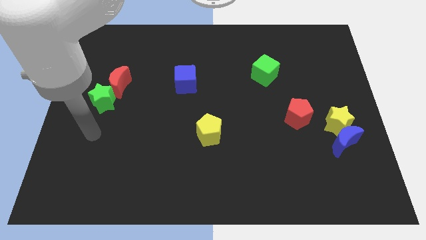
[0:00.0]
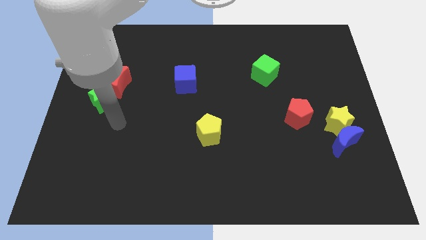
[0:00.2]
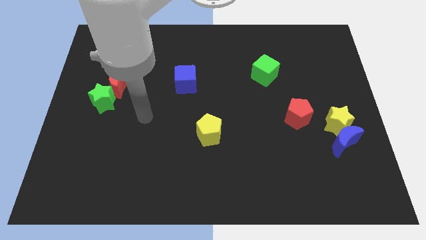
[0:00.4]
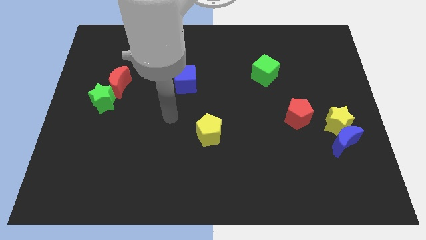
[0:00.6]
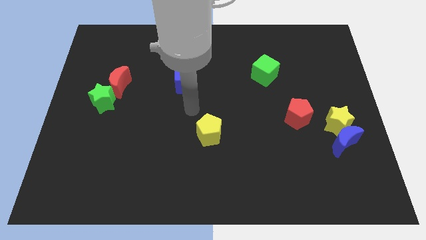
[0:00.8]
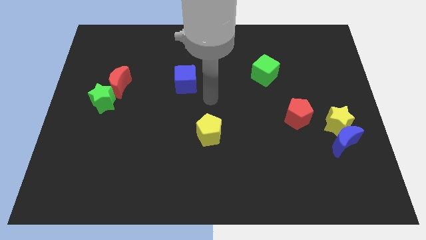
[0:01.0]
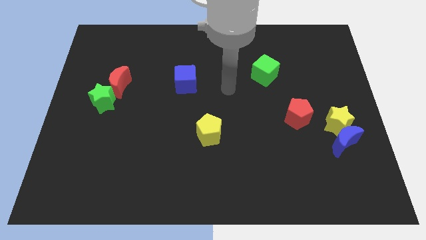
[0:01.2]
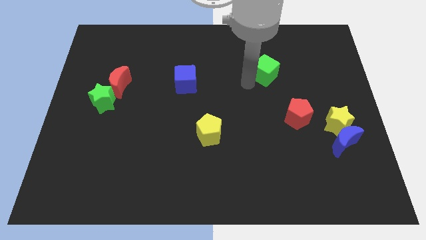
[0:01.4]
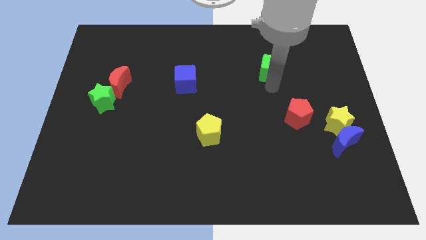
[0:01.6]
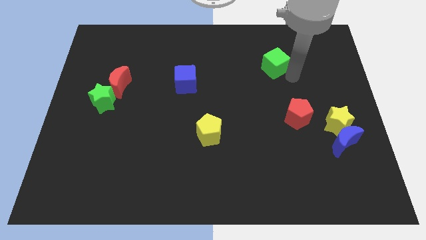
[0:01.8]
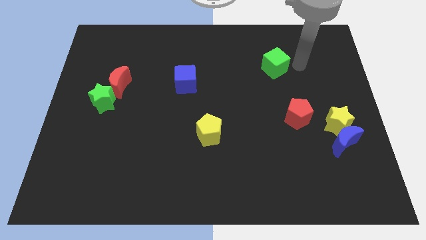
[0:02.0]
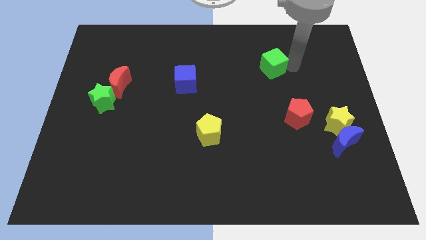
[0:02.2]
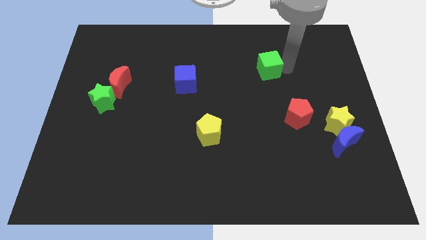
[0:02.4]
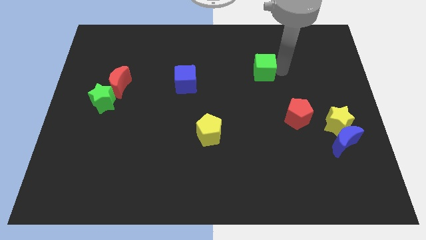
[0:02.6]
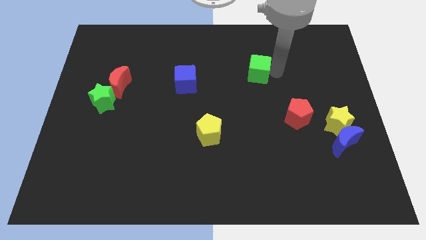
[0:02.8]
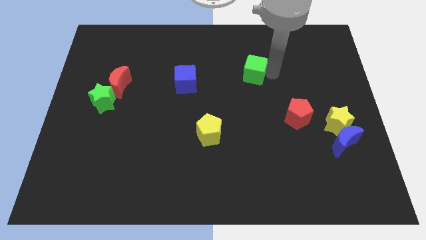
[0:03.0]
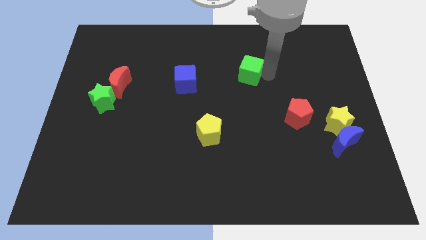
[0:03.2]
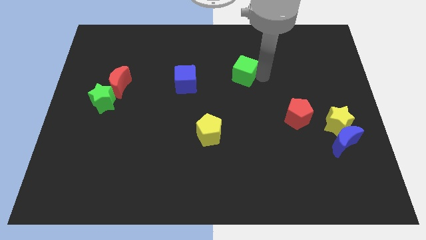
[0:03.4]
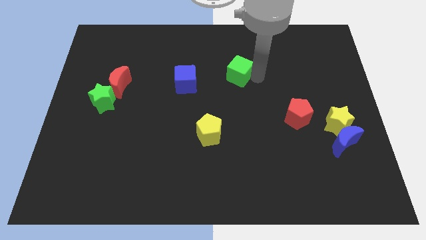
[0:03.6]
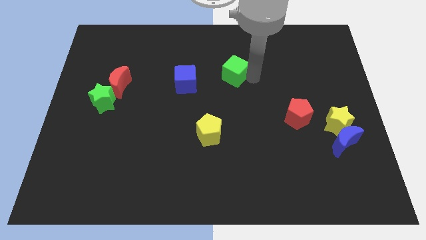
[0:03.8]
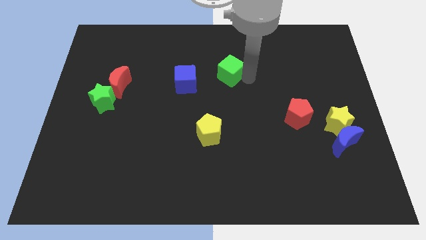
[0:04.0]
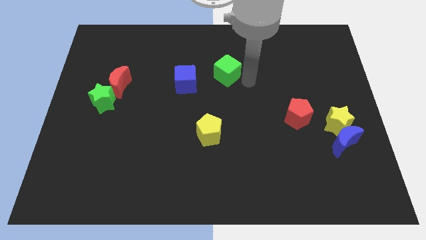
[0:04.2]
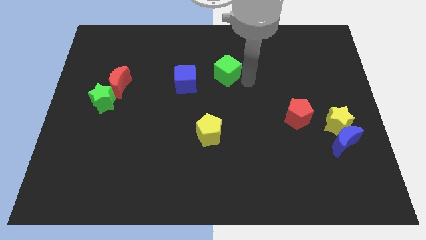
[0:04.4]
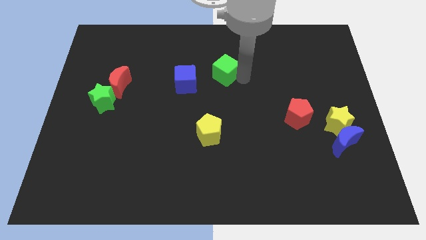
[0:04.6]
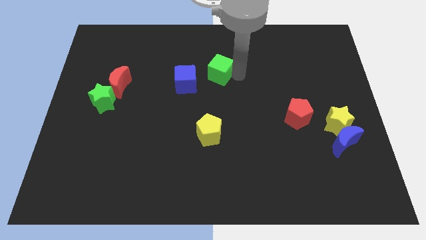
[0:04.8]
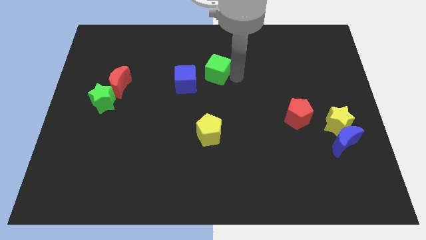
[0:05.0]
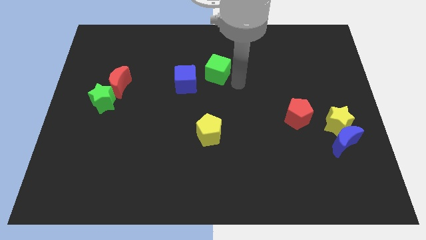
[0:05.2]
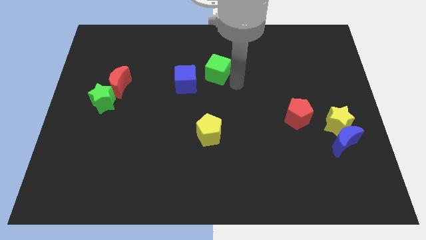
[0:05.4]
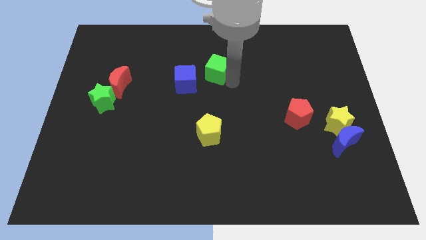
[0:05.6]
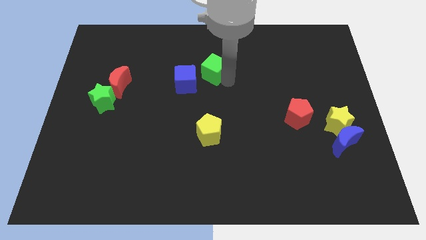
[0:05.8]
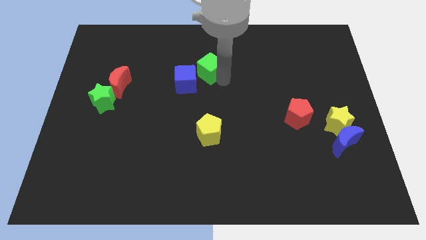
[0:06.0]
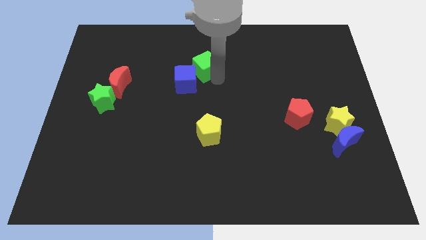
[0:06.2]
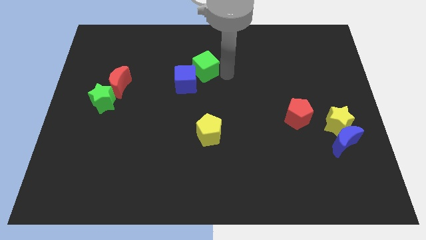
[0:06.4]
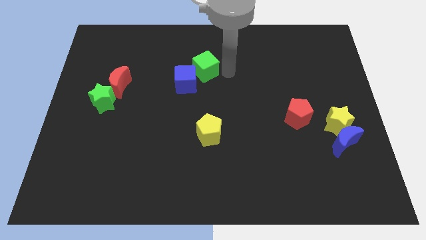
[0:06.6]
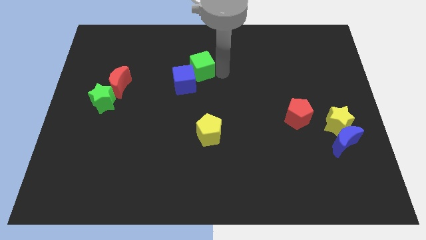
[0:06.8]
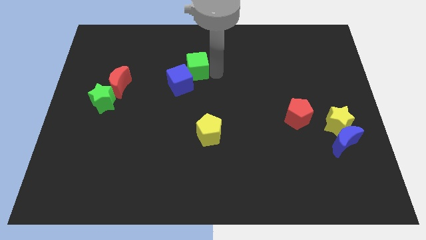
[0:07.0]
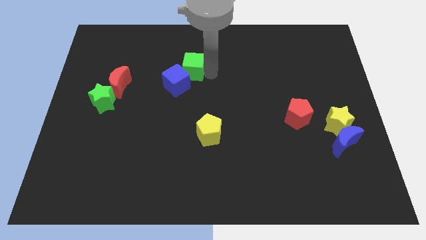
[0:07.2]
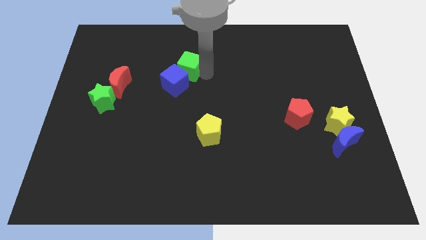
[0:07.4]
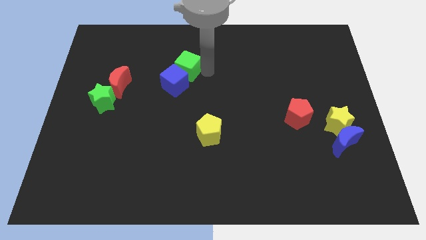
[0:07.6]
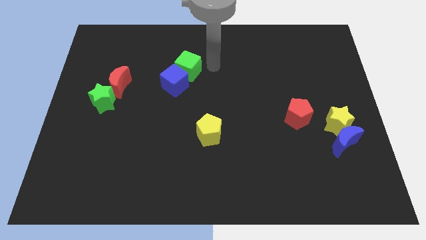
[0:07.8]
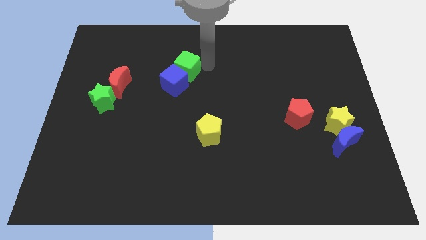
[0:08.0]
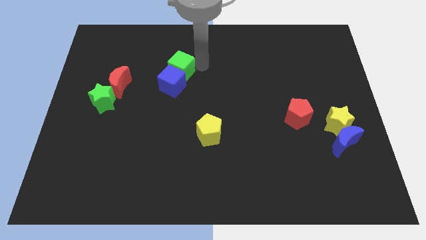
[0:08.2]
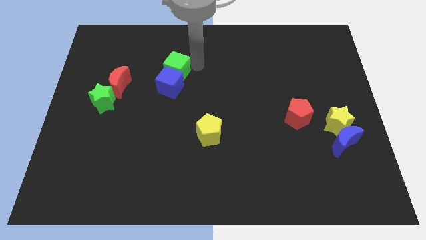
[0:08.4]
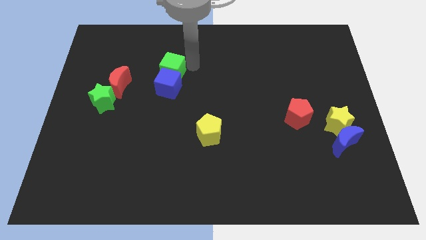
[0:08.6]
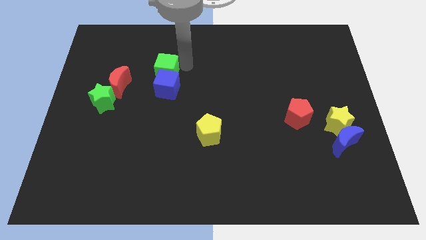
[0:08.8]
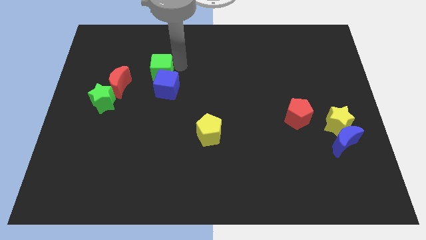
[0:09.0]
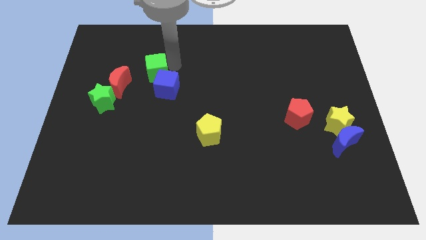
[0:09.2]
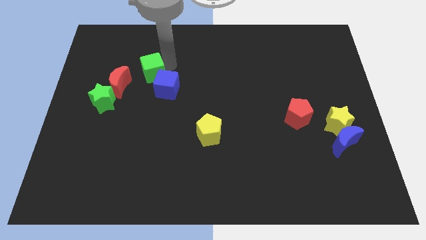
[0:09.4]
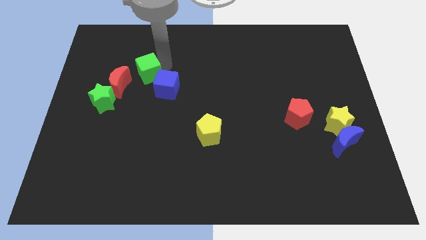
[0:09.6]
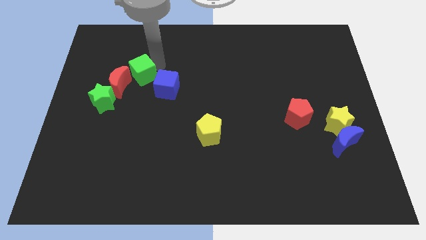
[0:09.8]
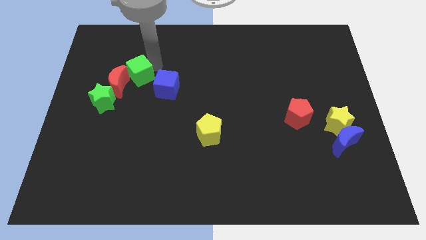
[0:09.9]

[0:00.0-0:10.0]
push the green cube next to the red moon

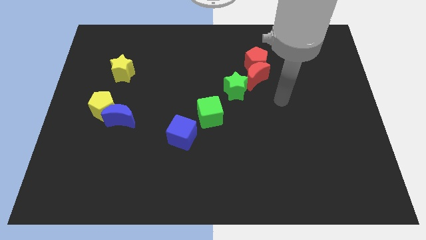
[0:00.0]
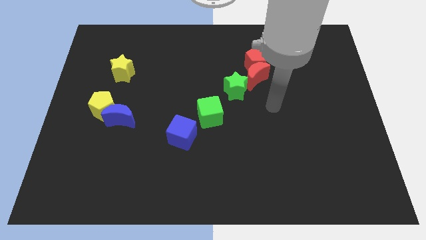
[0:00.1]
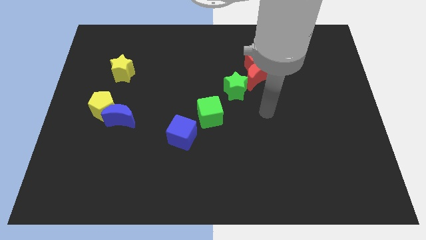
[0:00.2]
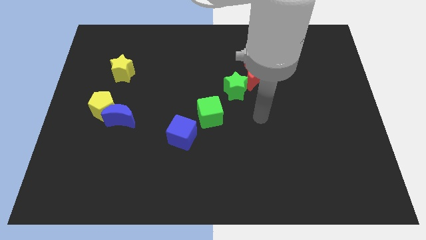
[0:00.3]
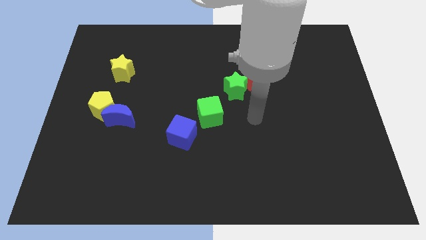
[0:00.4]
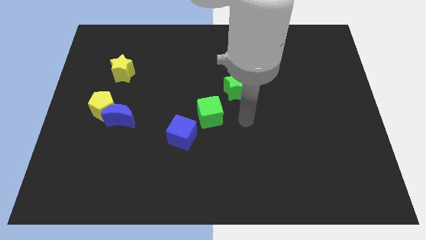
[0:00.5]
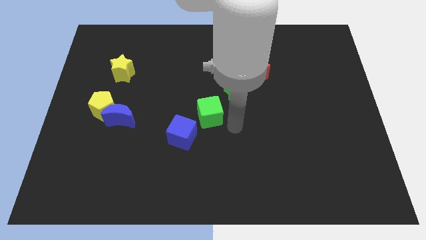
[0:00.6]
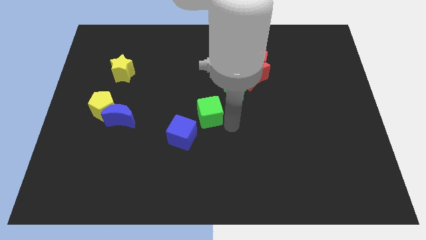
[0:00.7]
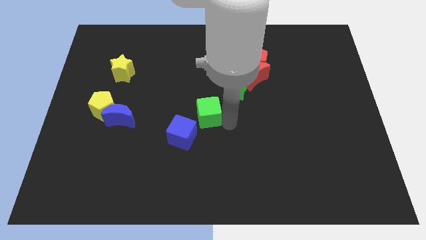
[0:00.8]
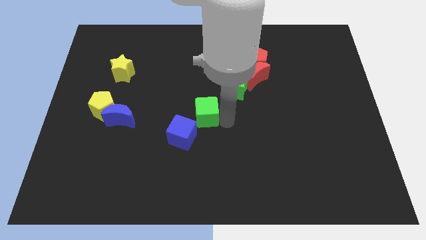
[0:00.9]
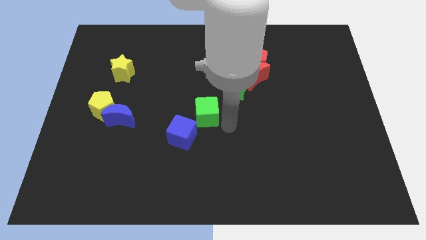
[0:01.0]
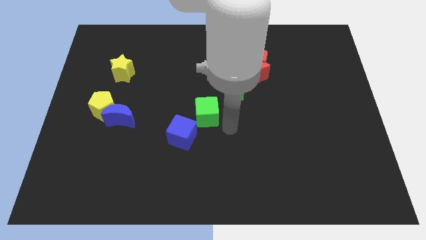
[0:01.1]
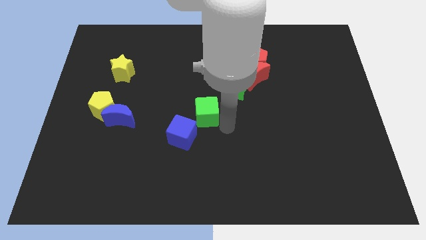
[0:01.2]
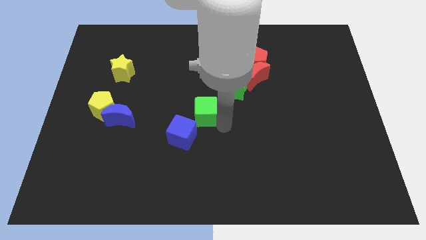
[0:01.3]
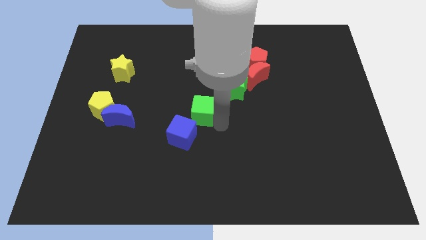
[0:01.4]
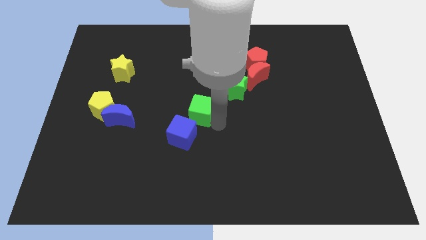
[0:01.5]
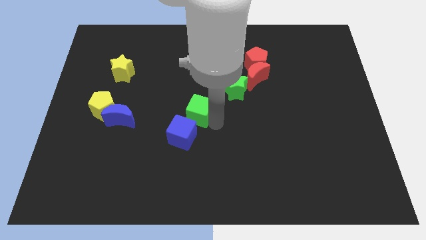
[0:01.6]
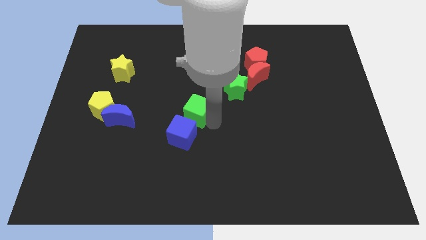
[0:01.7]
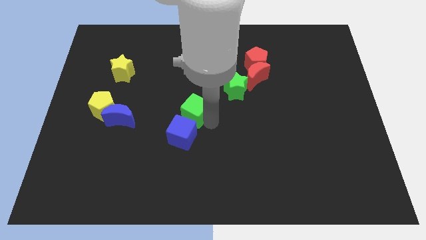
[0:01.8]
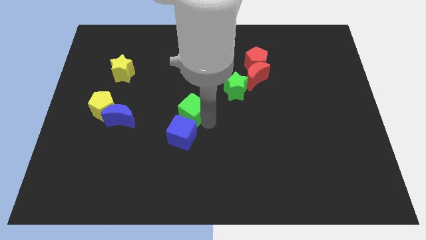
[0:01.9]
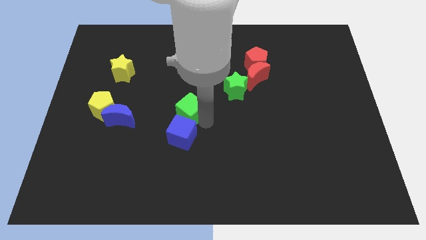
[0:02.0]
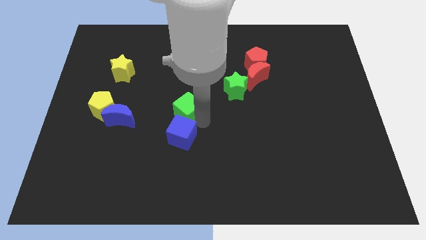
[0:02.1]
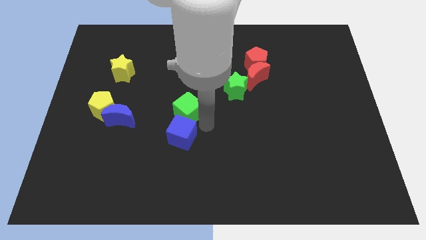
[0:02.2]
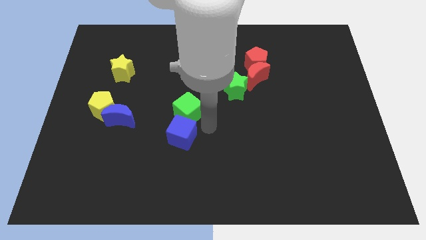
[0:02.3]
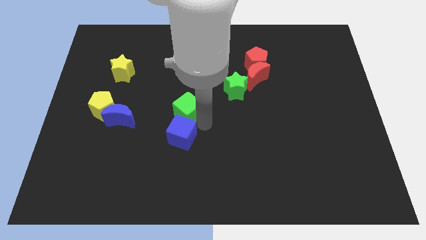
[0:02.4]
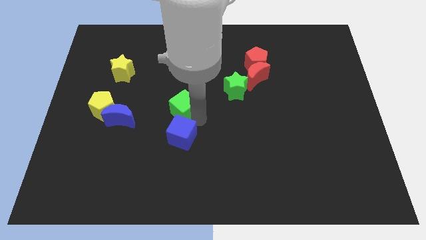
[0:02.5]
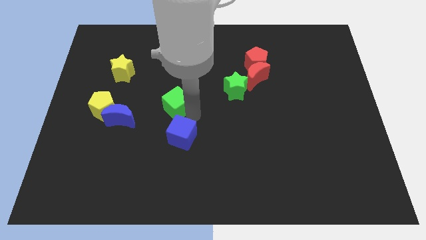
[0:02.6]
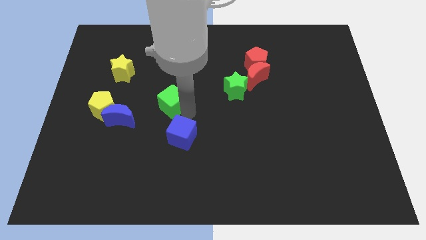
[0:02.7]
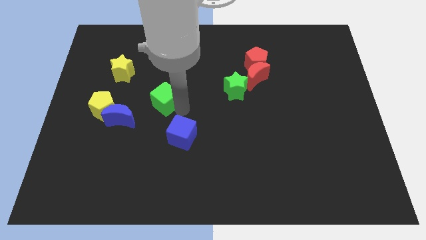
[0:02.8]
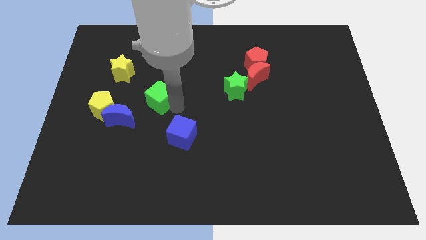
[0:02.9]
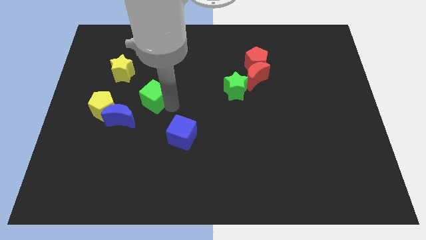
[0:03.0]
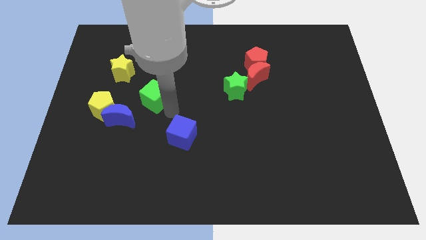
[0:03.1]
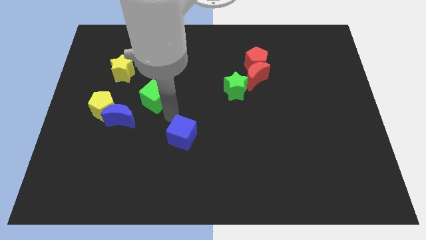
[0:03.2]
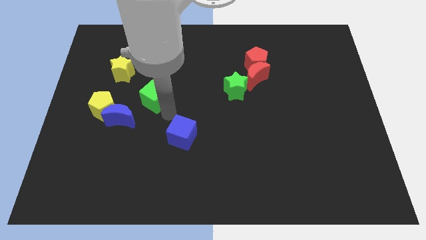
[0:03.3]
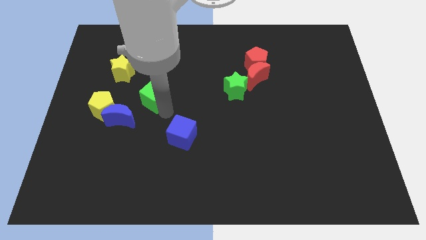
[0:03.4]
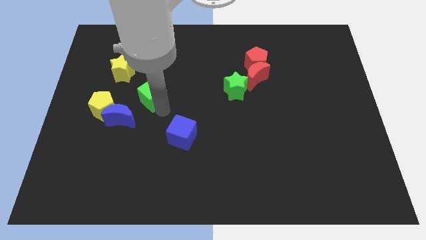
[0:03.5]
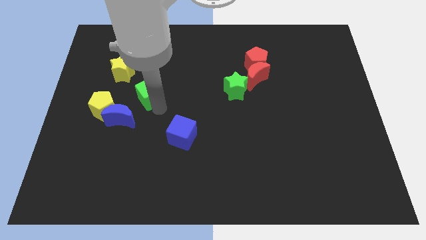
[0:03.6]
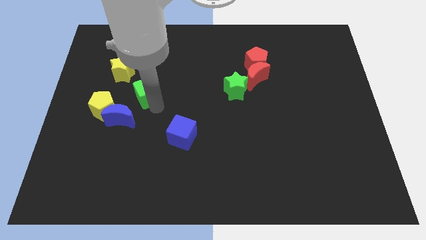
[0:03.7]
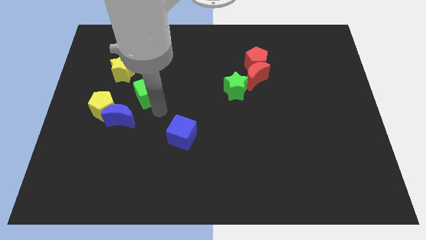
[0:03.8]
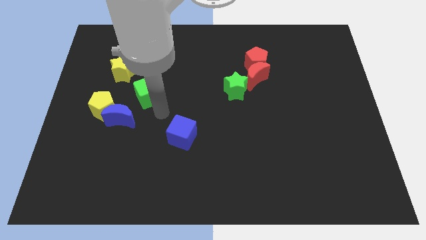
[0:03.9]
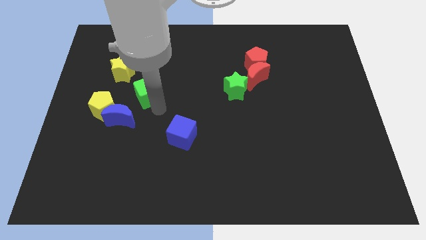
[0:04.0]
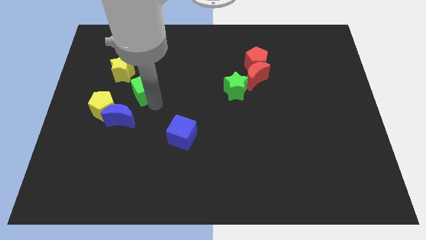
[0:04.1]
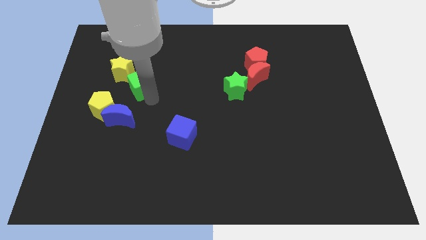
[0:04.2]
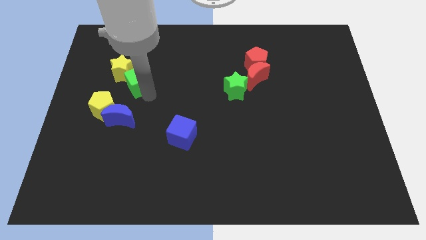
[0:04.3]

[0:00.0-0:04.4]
move the green cube to the yellow star
